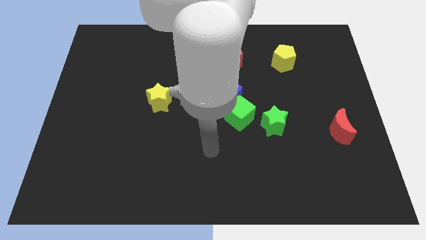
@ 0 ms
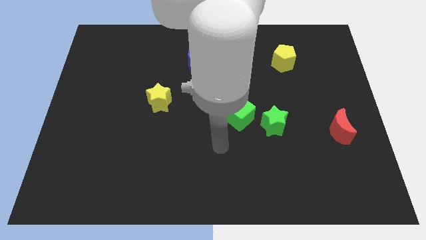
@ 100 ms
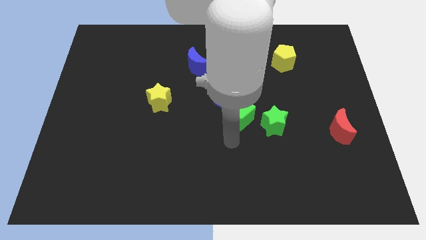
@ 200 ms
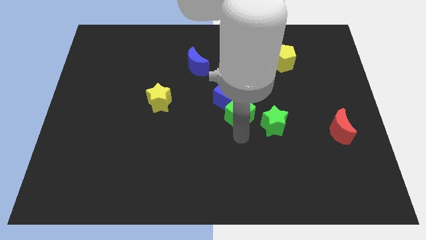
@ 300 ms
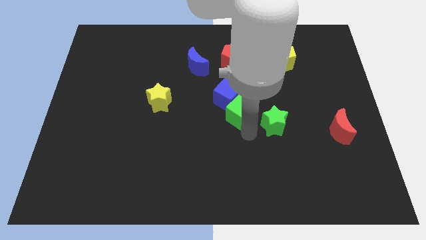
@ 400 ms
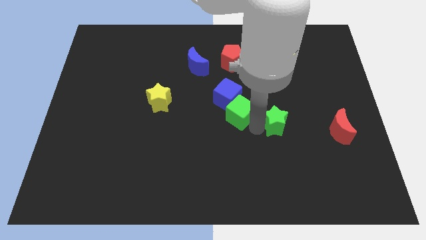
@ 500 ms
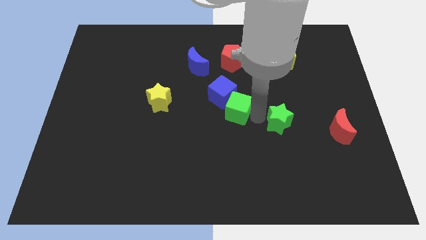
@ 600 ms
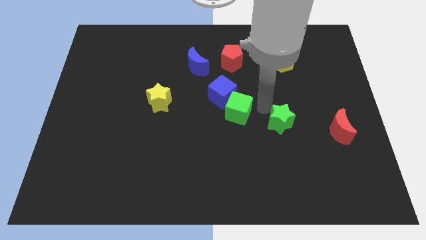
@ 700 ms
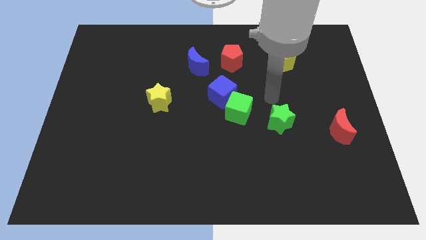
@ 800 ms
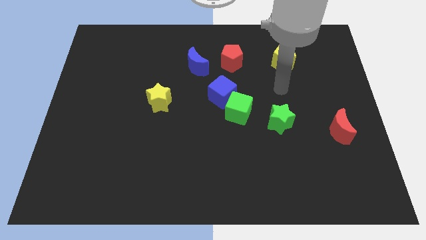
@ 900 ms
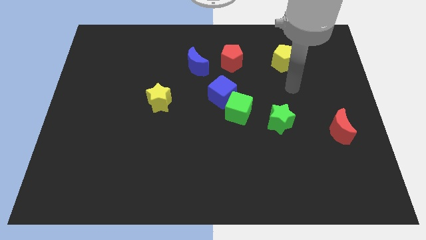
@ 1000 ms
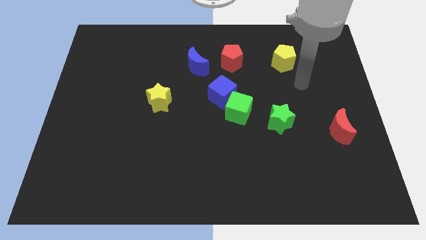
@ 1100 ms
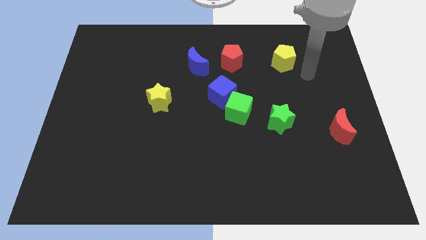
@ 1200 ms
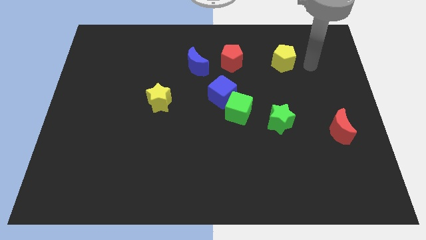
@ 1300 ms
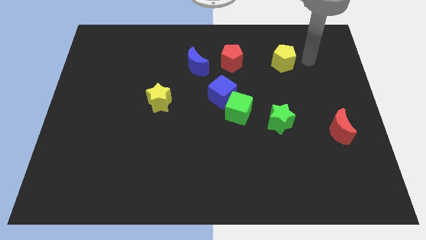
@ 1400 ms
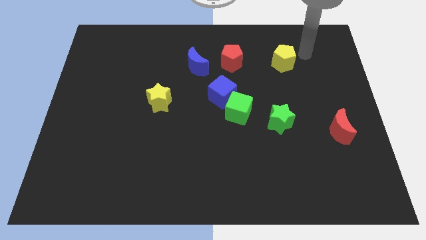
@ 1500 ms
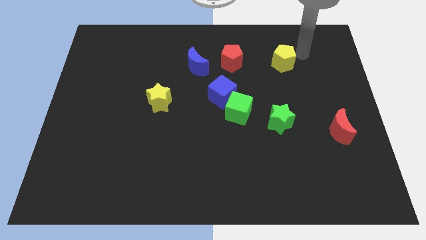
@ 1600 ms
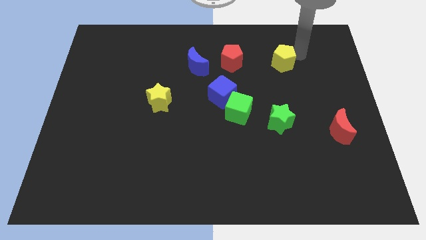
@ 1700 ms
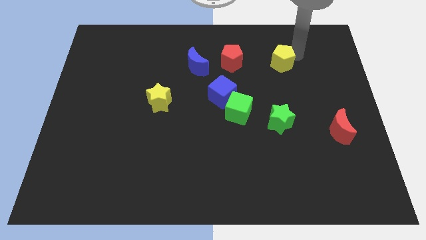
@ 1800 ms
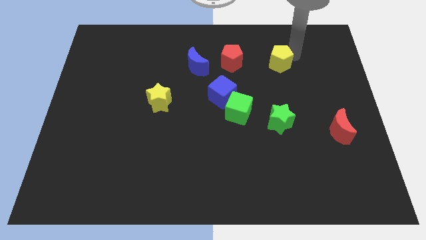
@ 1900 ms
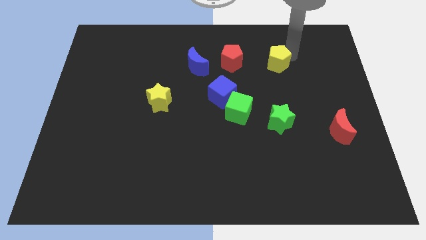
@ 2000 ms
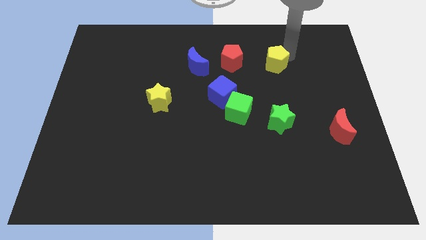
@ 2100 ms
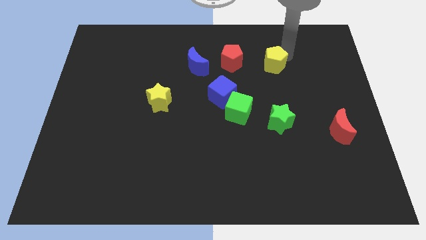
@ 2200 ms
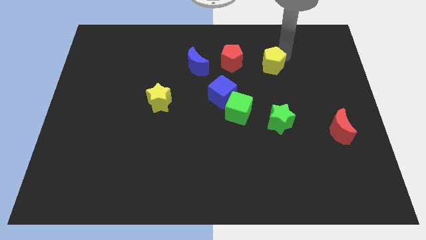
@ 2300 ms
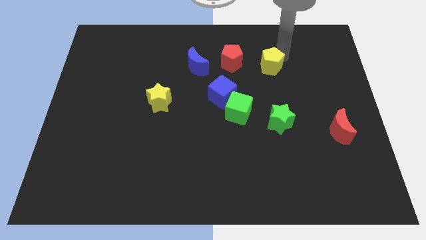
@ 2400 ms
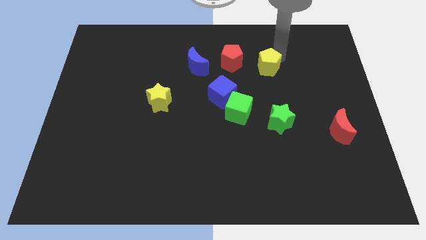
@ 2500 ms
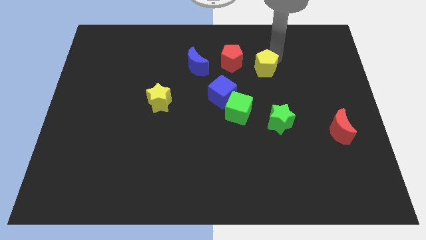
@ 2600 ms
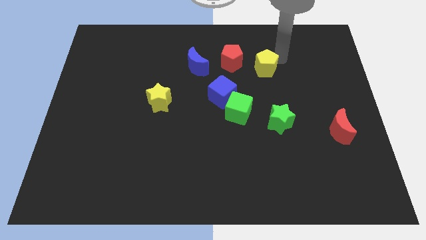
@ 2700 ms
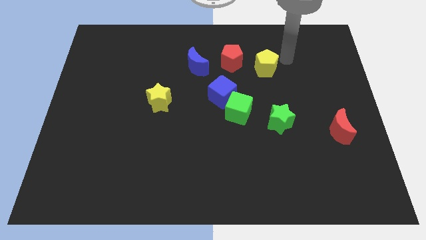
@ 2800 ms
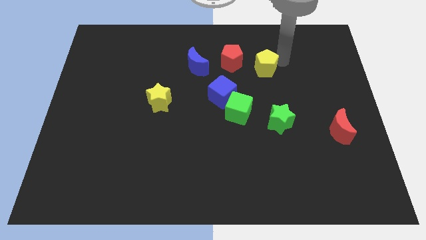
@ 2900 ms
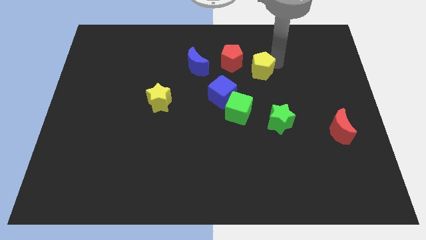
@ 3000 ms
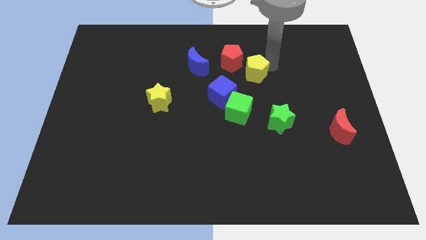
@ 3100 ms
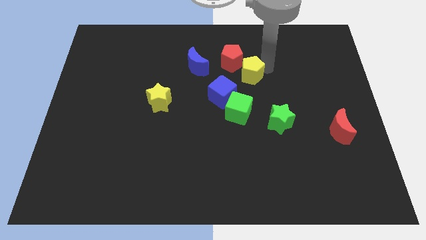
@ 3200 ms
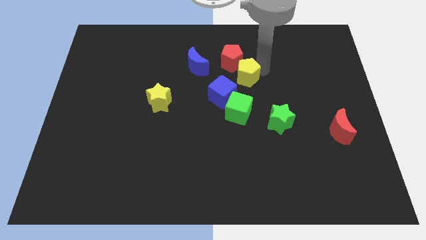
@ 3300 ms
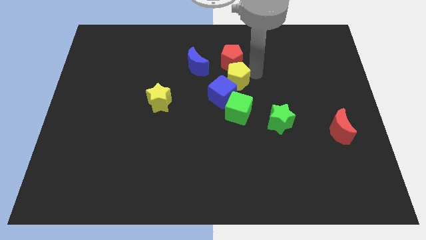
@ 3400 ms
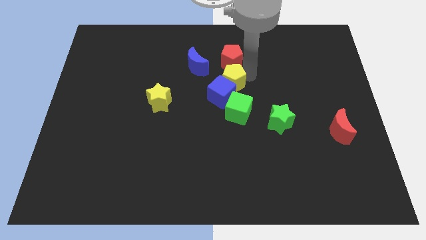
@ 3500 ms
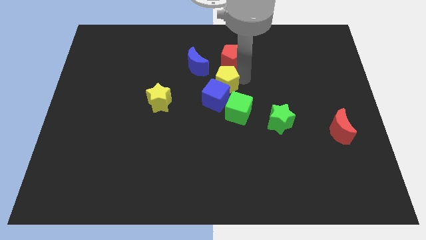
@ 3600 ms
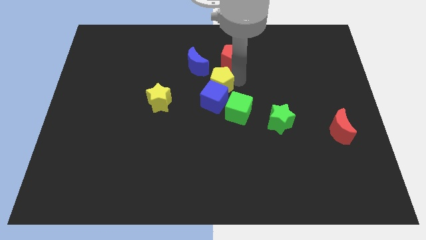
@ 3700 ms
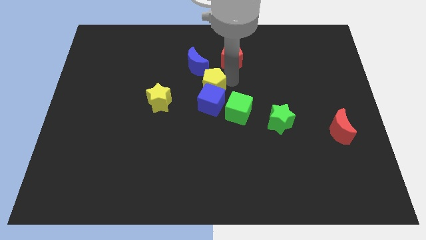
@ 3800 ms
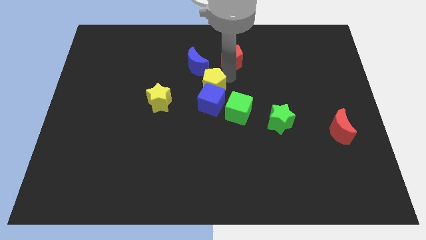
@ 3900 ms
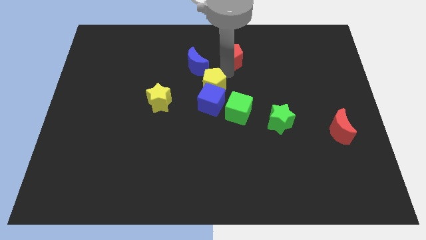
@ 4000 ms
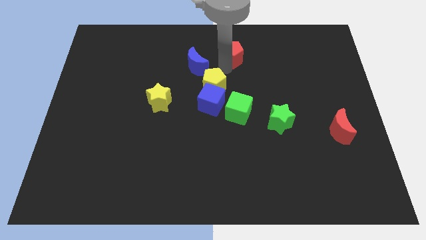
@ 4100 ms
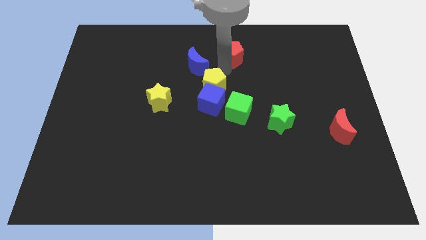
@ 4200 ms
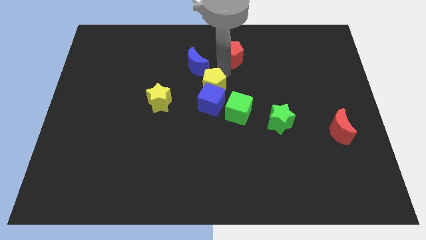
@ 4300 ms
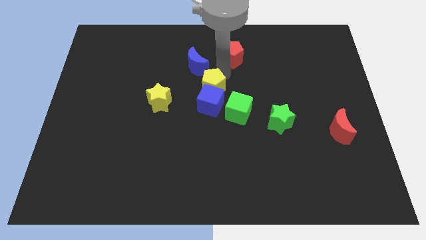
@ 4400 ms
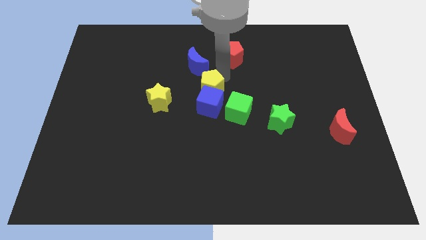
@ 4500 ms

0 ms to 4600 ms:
slide the yellow pentagon right of the yellow star

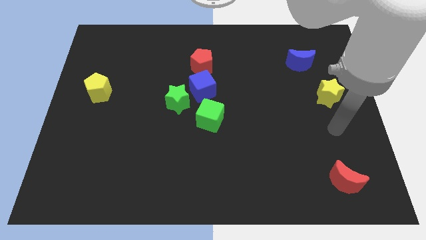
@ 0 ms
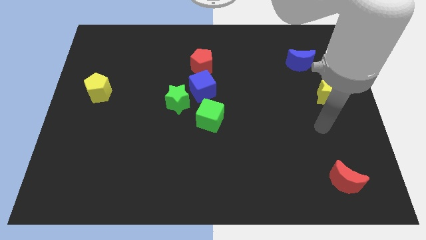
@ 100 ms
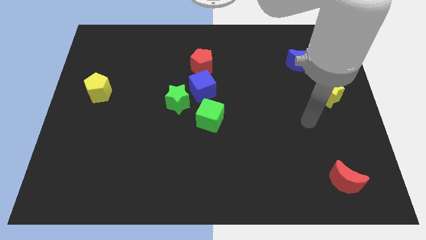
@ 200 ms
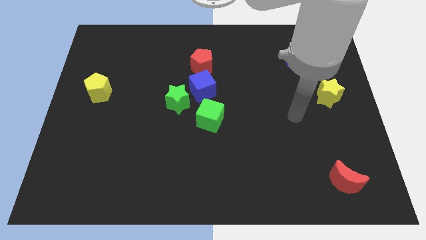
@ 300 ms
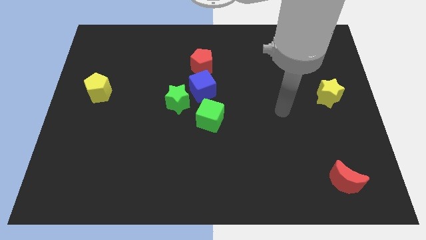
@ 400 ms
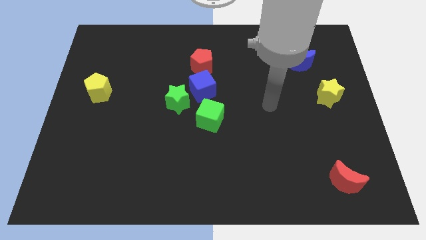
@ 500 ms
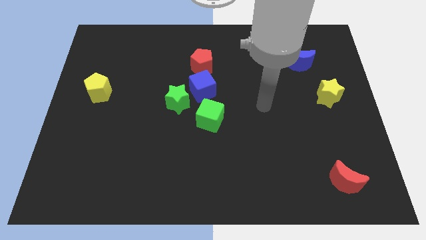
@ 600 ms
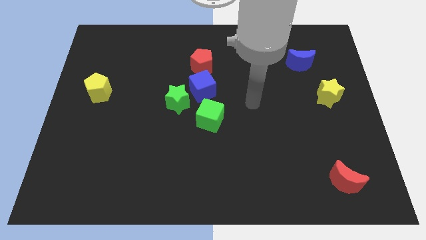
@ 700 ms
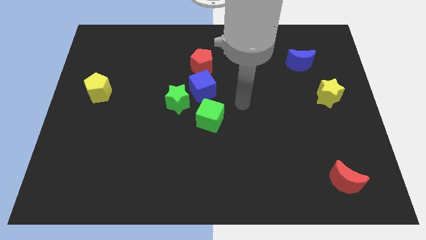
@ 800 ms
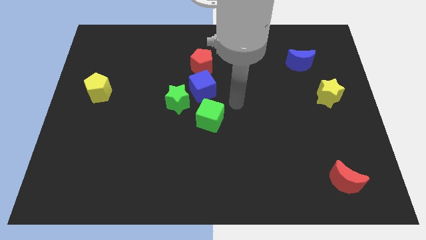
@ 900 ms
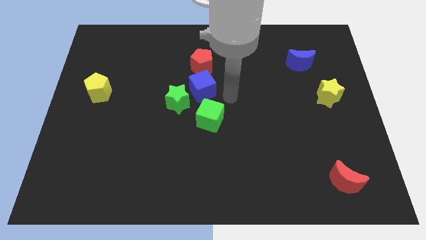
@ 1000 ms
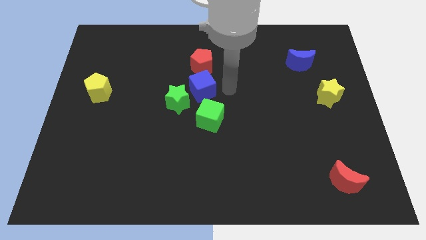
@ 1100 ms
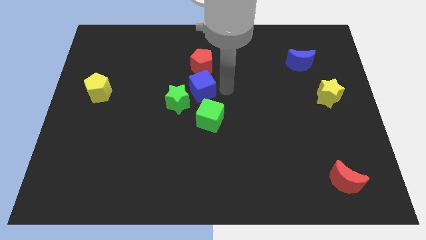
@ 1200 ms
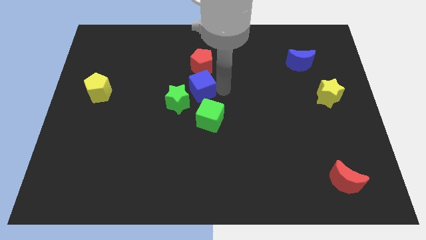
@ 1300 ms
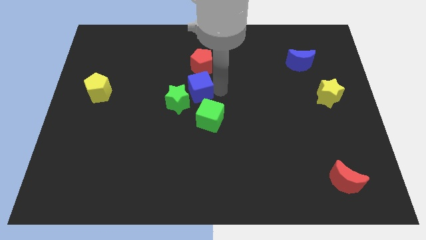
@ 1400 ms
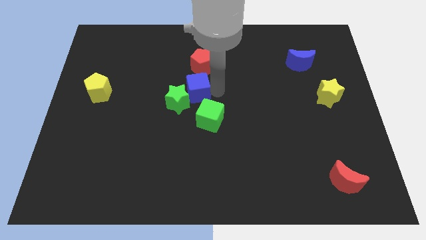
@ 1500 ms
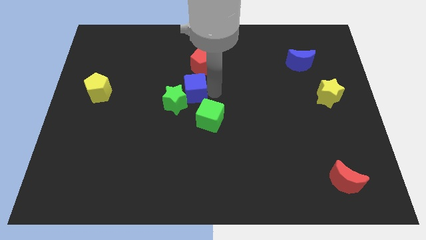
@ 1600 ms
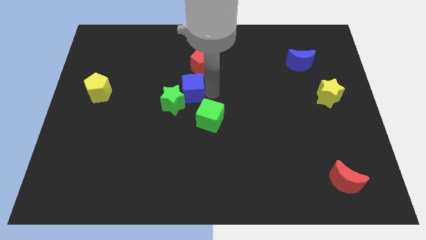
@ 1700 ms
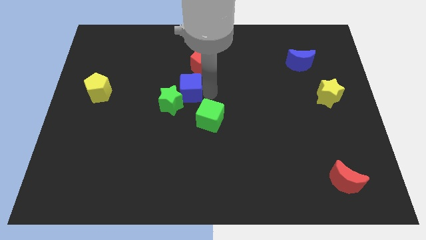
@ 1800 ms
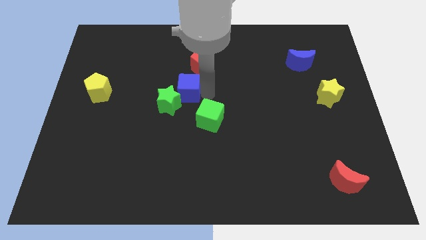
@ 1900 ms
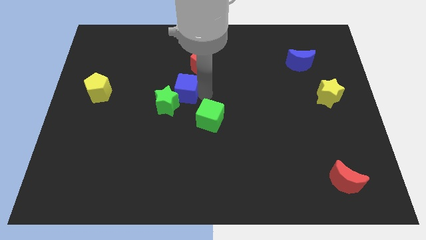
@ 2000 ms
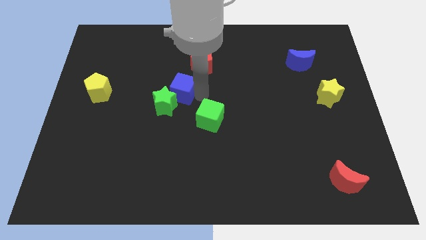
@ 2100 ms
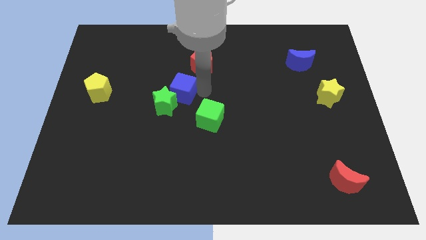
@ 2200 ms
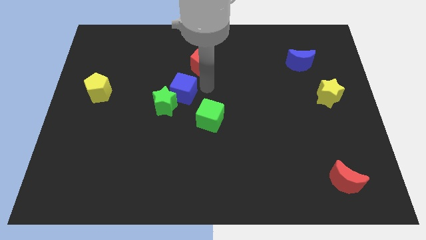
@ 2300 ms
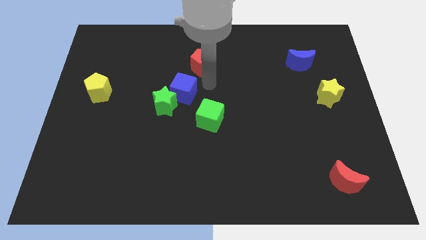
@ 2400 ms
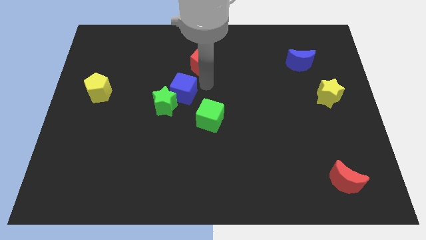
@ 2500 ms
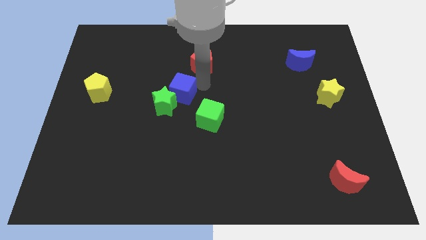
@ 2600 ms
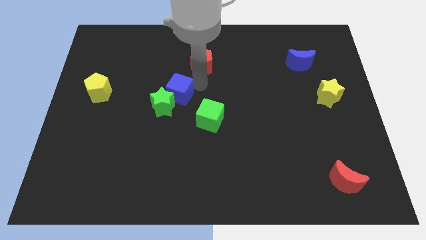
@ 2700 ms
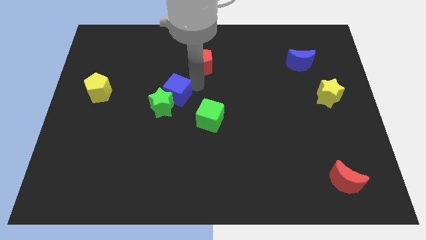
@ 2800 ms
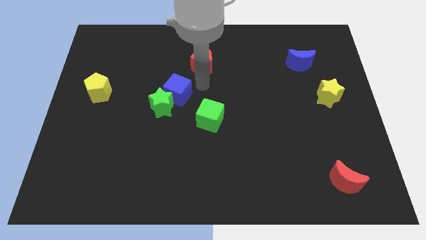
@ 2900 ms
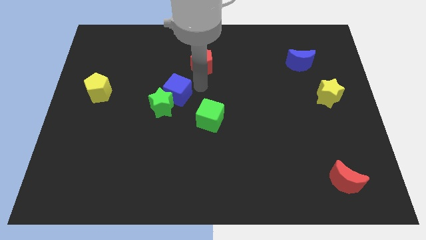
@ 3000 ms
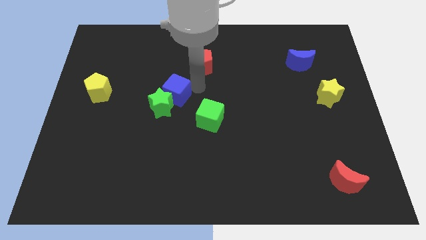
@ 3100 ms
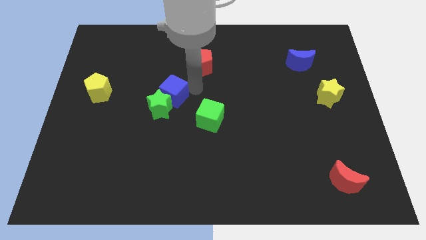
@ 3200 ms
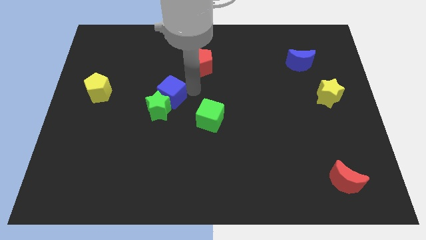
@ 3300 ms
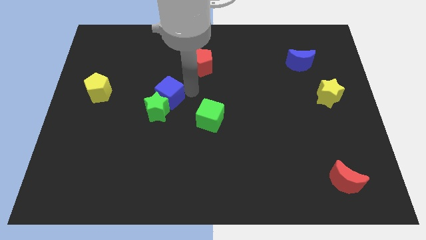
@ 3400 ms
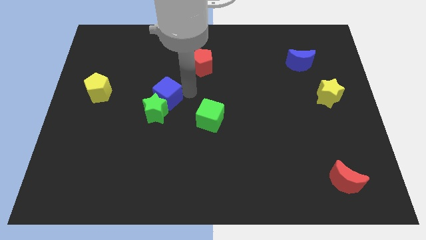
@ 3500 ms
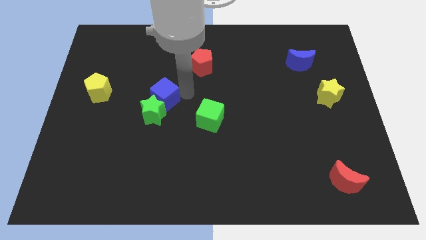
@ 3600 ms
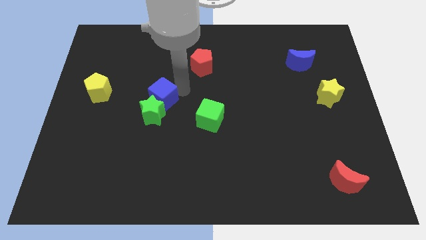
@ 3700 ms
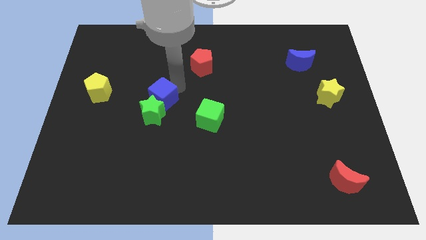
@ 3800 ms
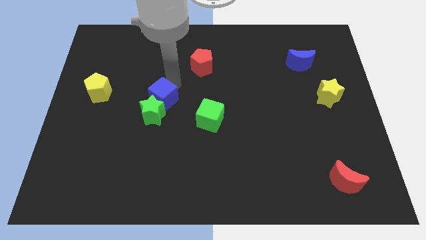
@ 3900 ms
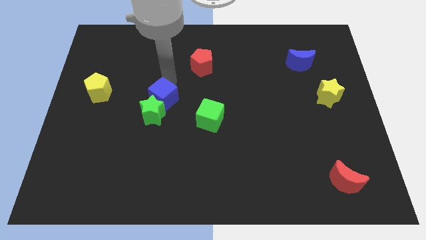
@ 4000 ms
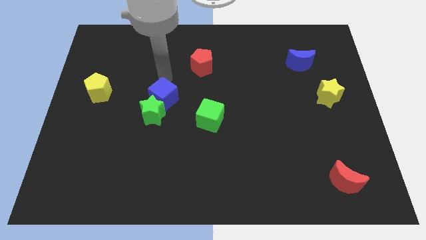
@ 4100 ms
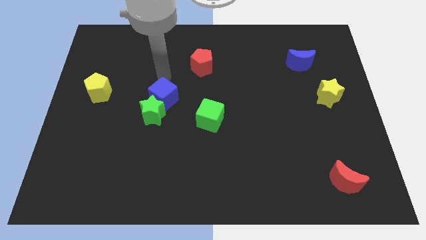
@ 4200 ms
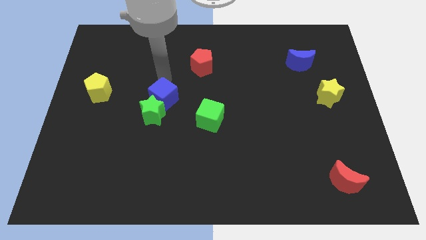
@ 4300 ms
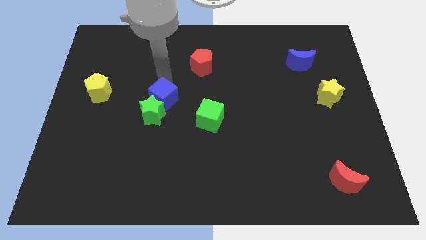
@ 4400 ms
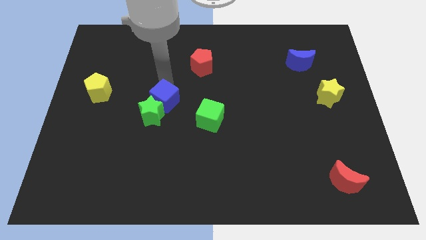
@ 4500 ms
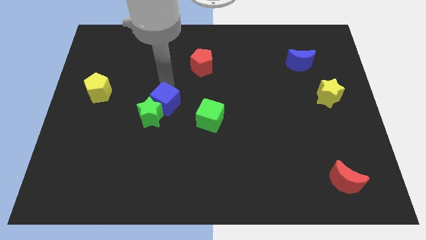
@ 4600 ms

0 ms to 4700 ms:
put the blue cube to the left of the green cube
